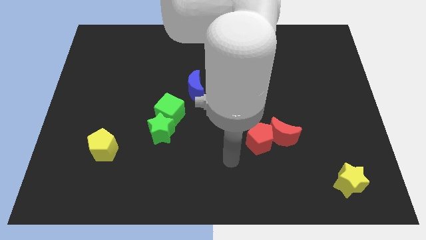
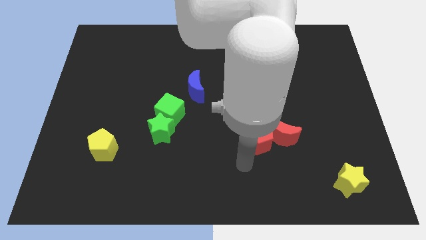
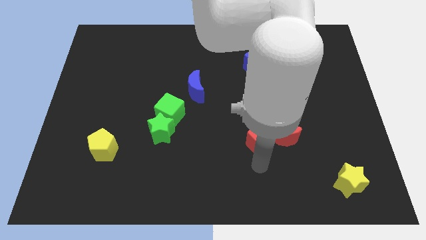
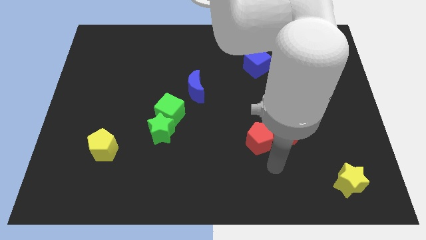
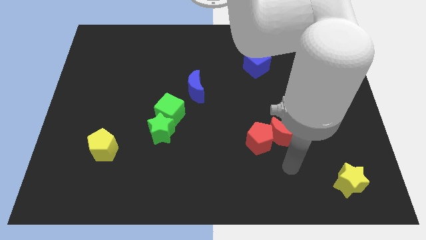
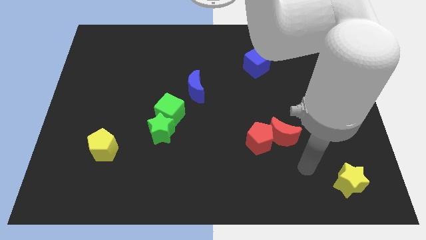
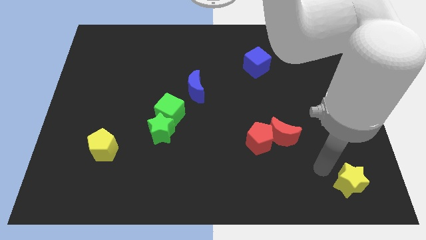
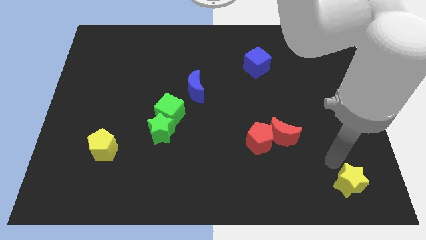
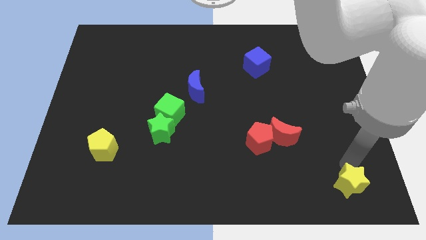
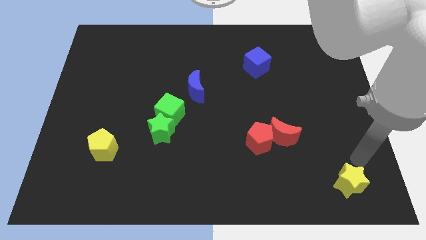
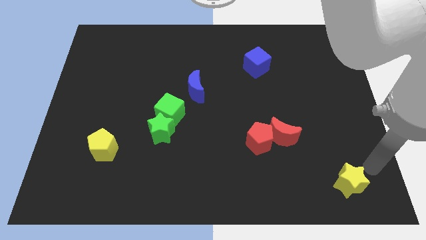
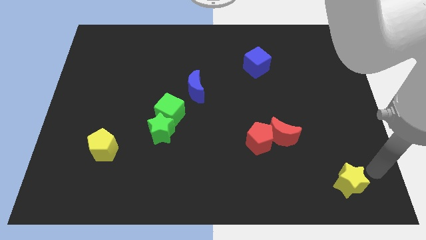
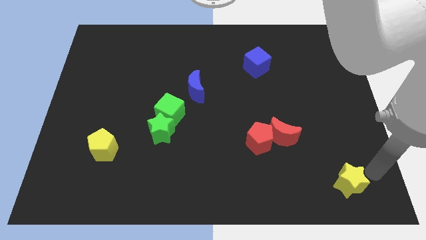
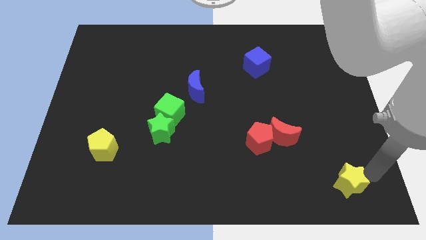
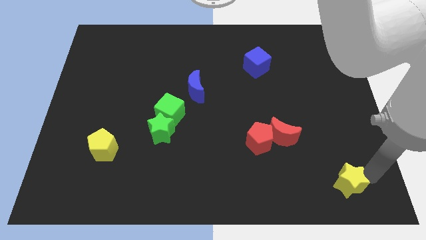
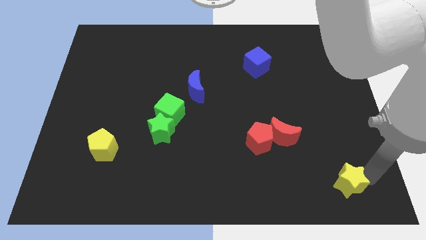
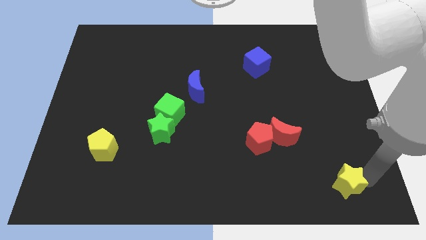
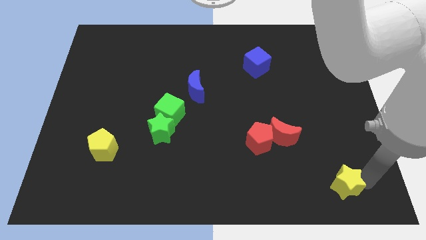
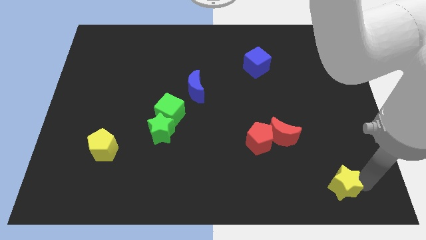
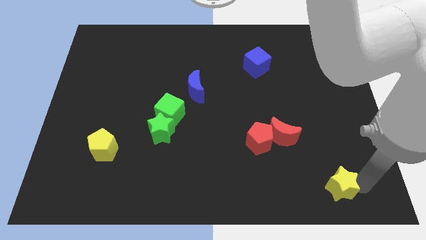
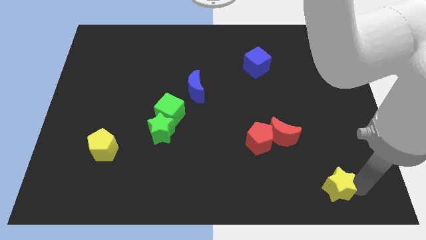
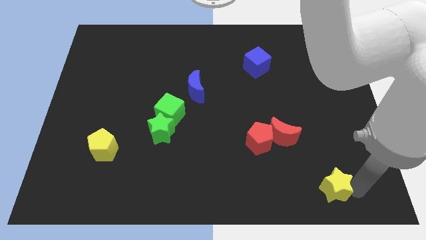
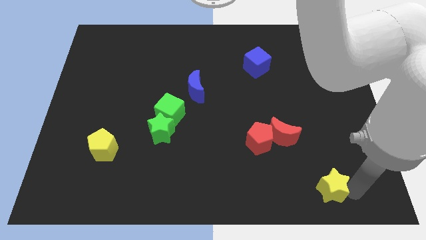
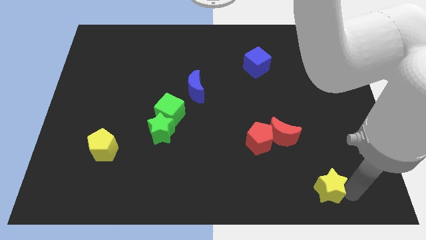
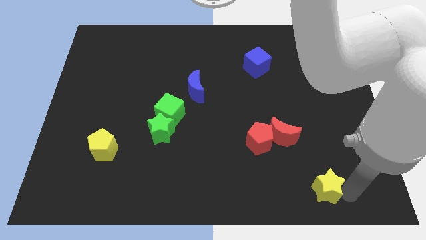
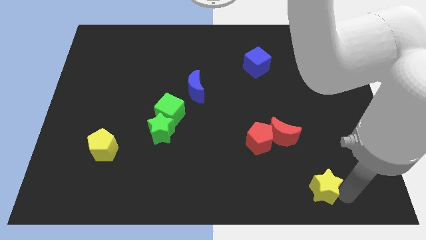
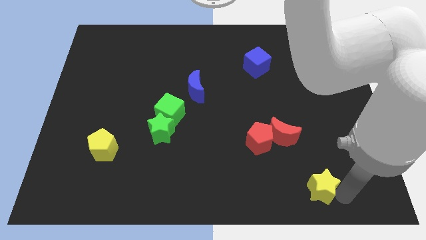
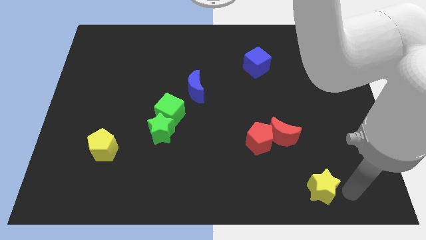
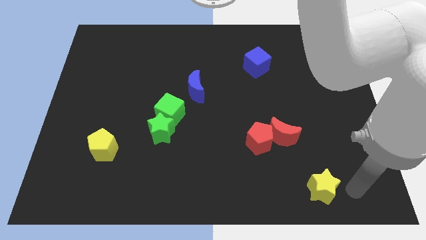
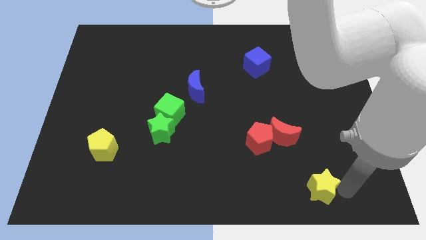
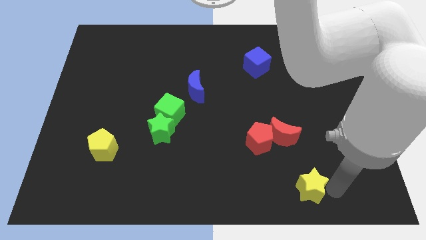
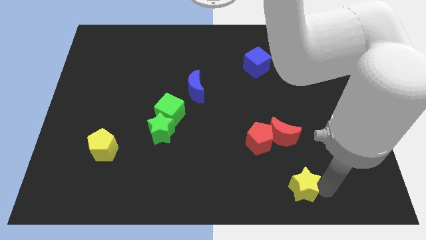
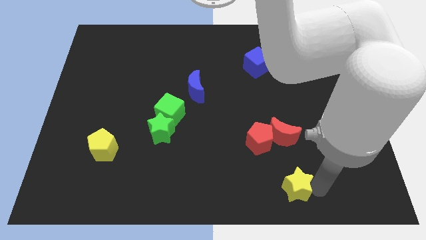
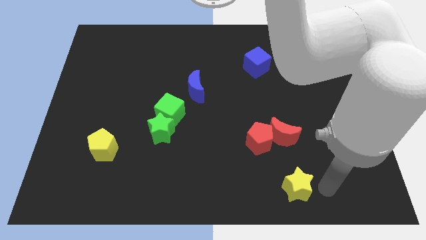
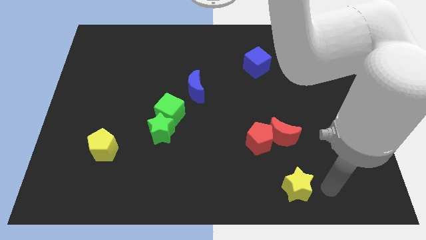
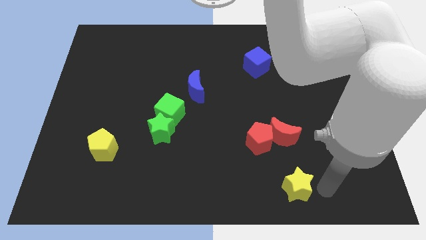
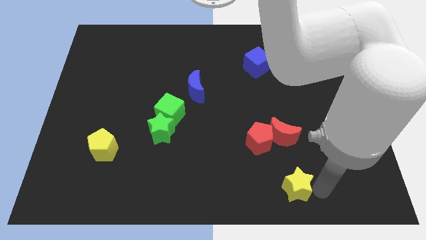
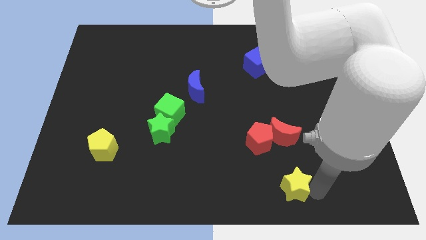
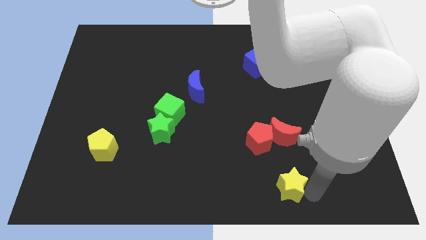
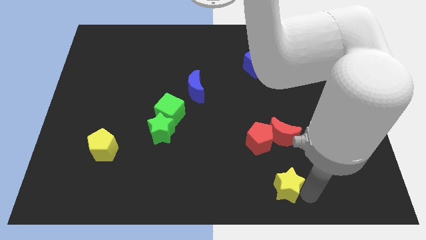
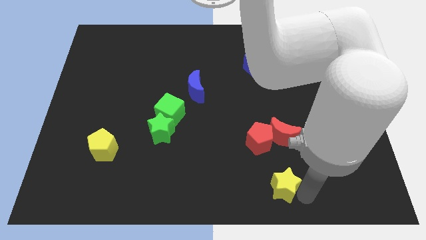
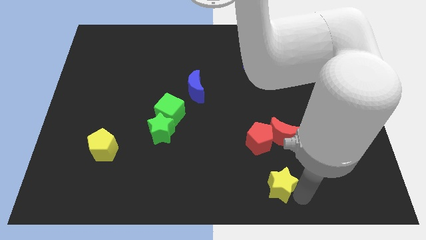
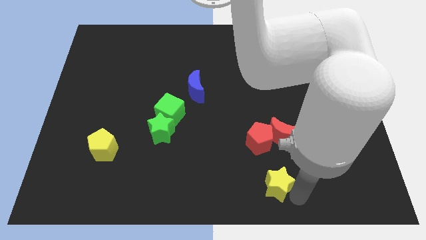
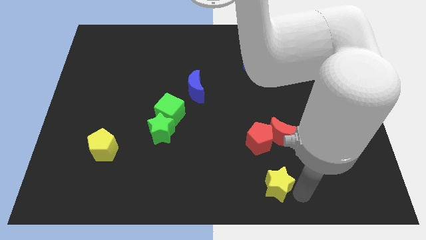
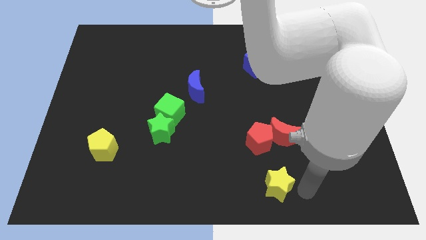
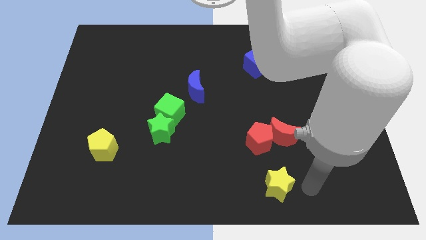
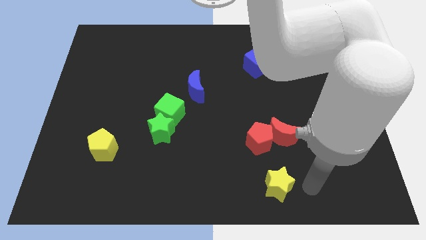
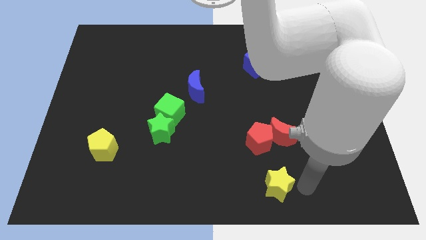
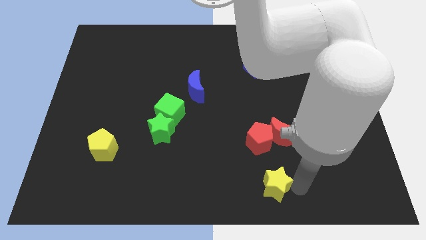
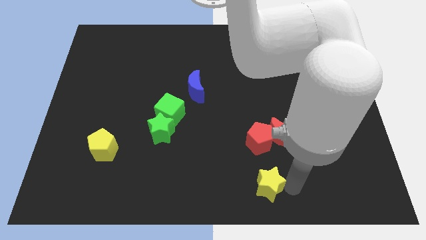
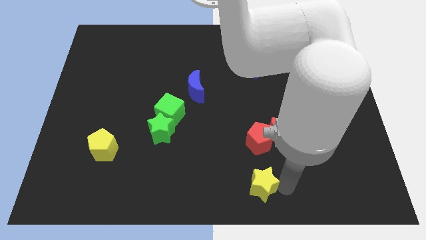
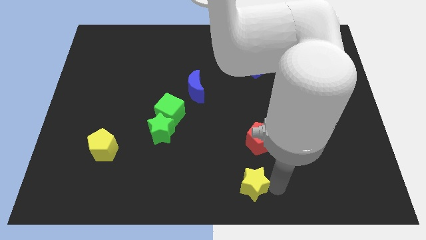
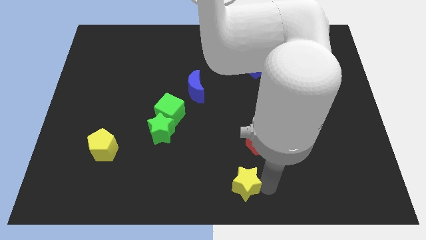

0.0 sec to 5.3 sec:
move the yellow star to the left

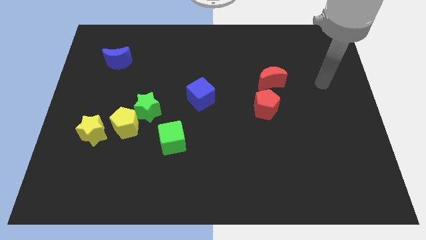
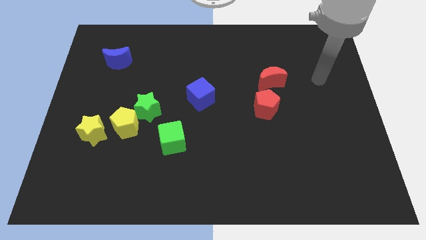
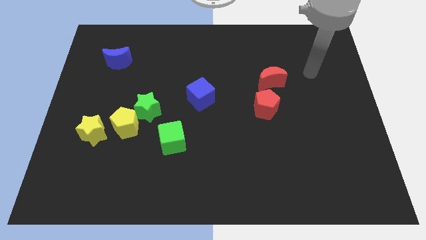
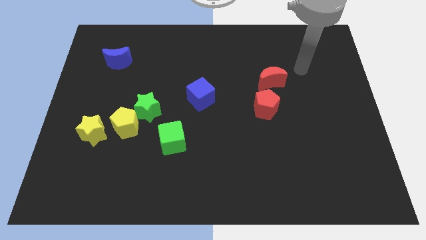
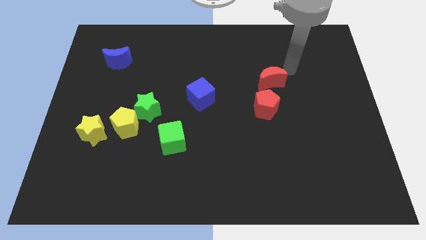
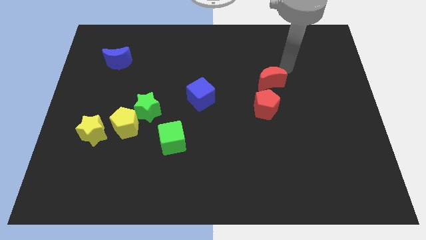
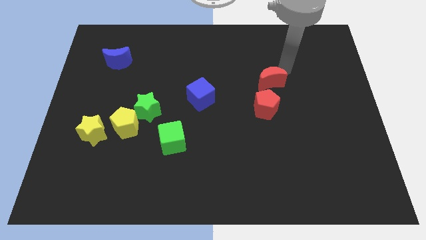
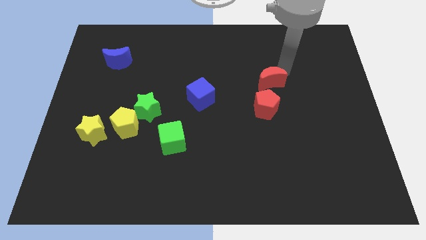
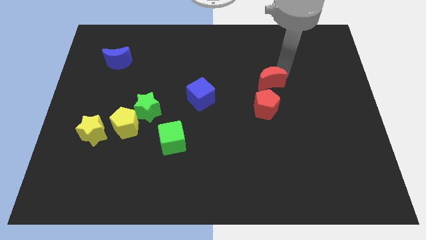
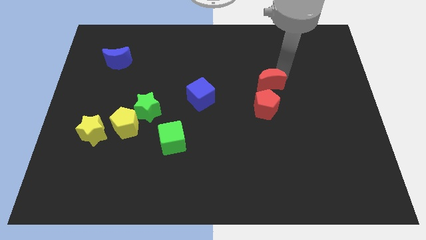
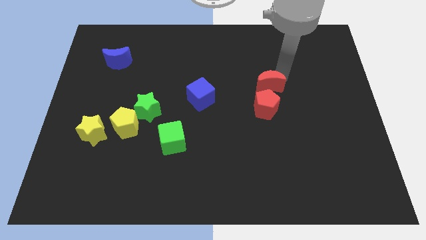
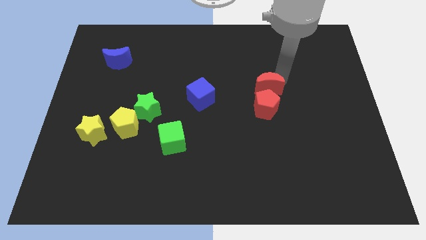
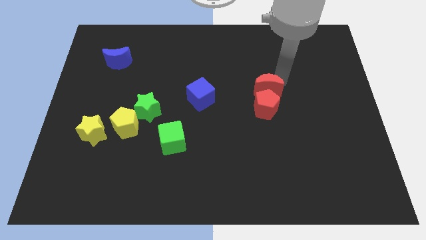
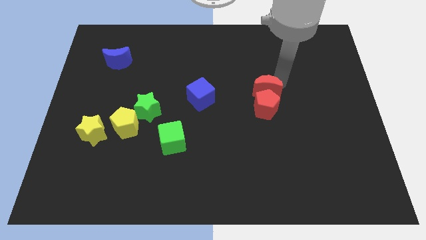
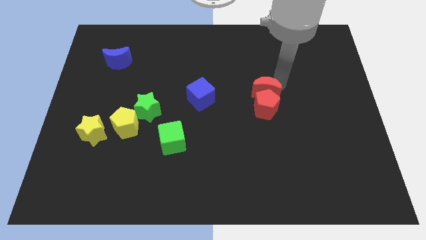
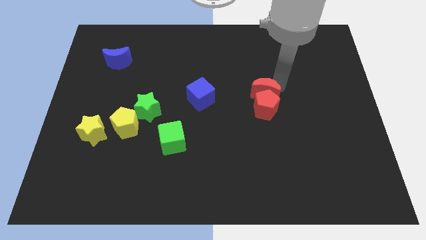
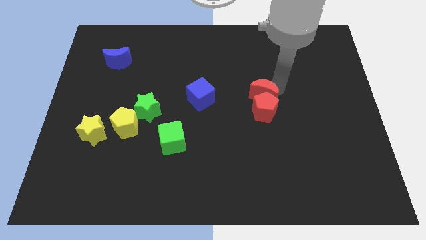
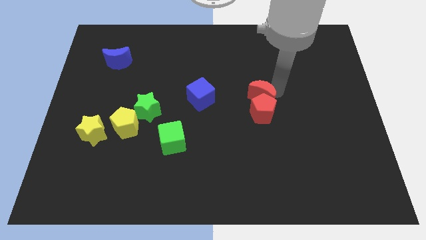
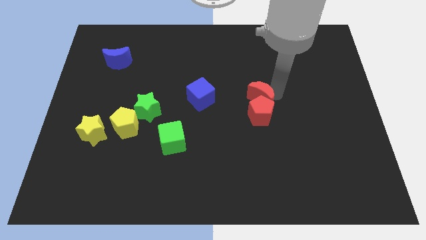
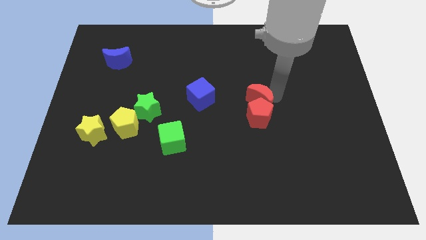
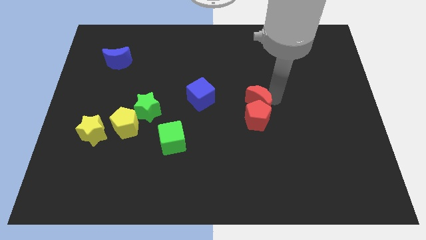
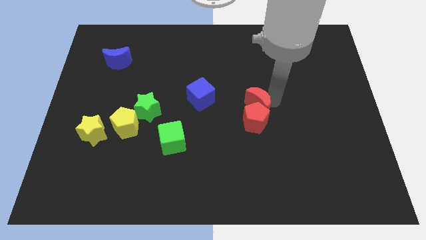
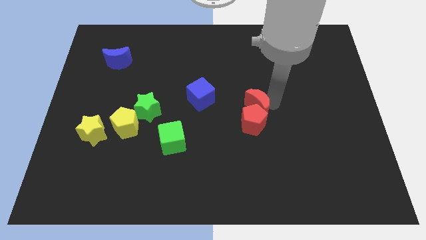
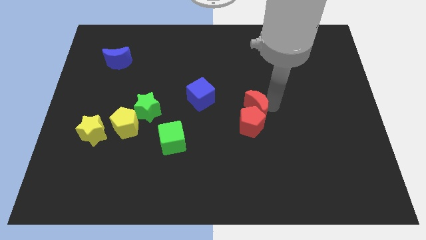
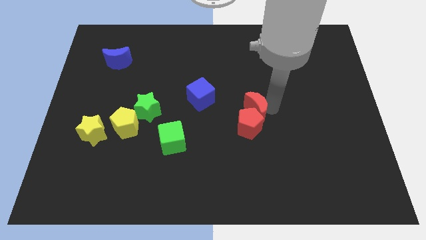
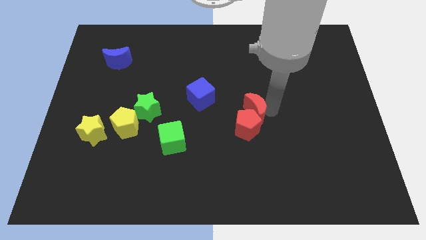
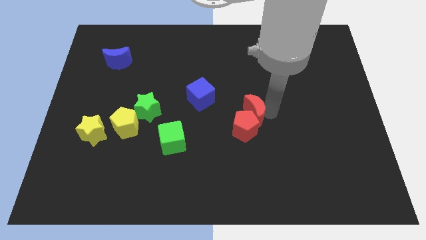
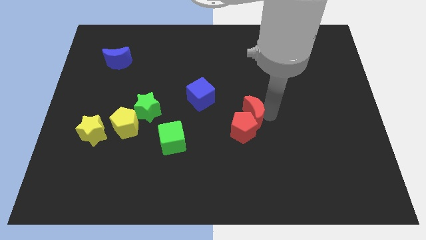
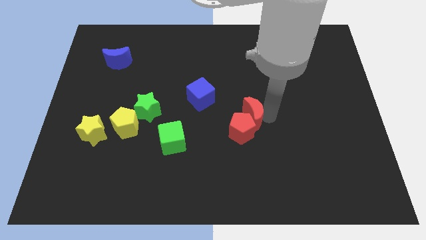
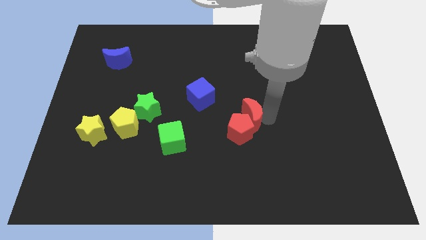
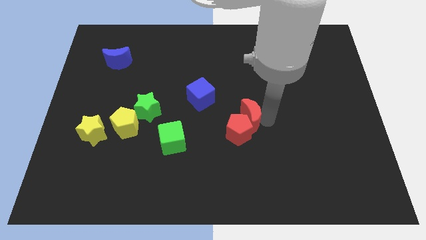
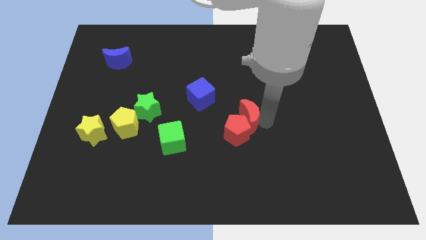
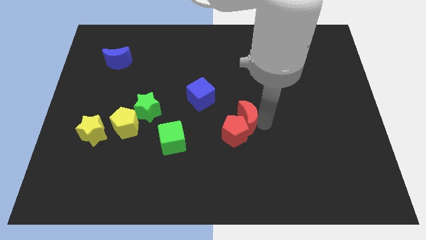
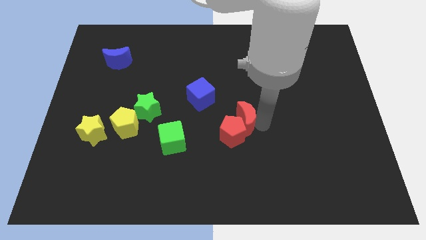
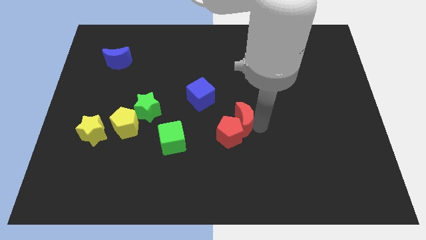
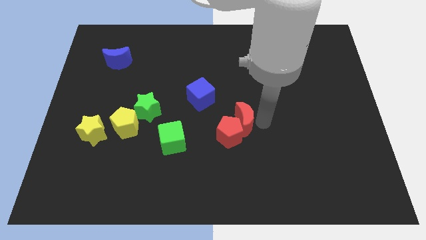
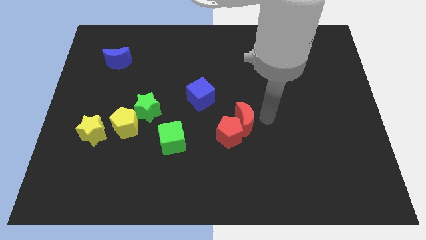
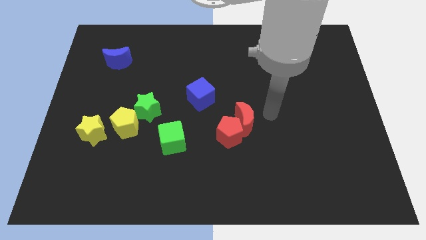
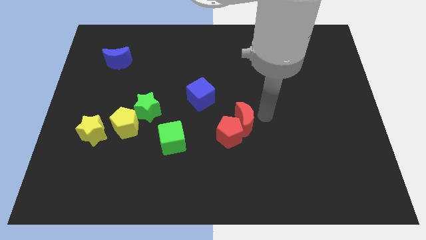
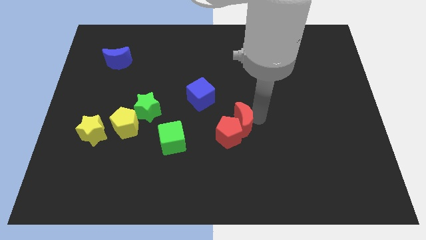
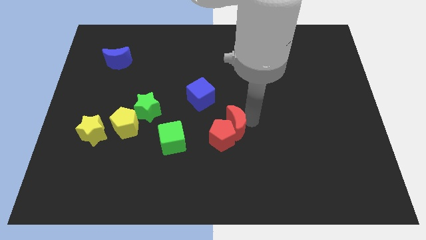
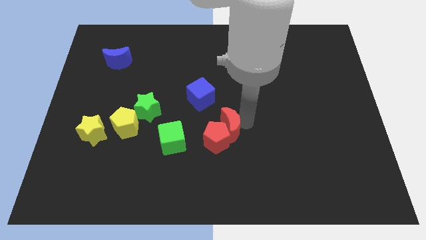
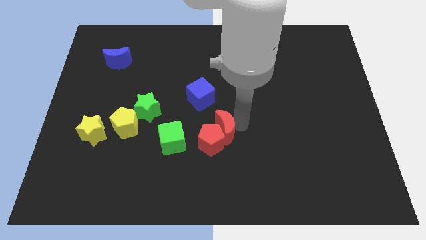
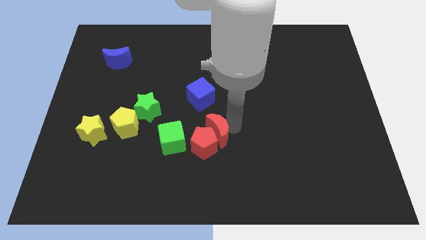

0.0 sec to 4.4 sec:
slide the red moon down and to the left diagonally
